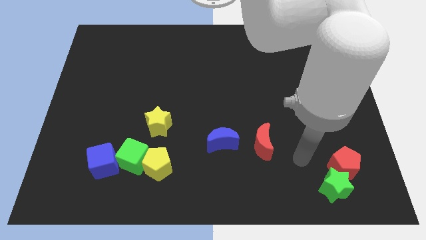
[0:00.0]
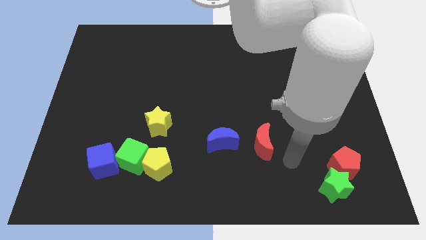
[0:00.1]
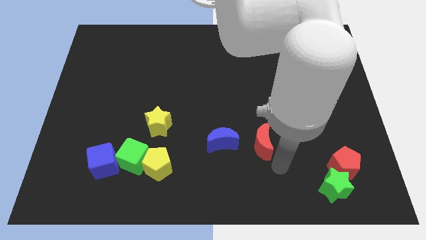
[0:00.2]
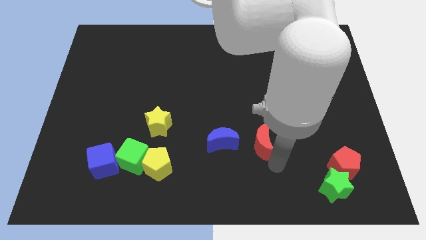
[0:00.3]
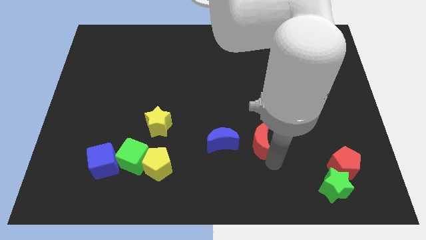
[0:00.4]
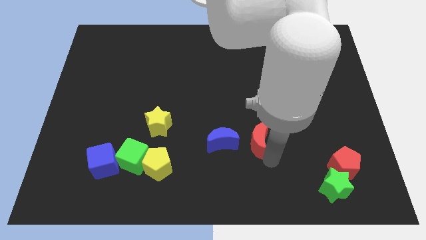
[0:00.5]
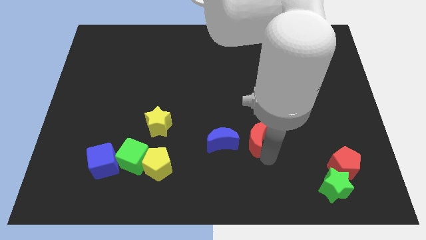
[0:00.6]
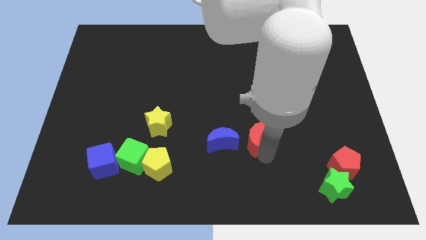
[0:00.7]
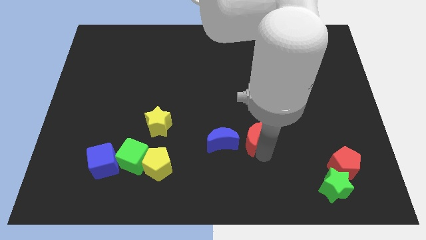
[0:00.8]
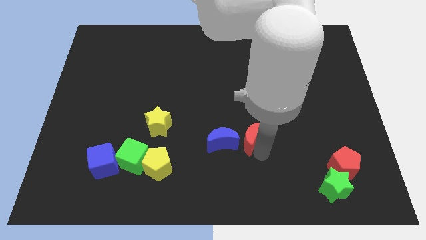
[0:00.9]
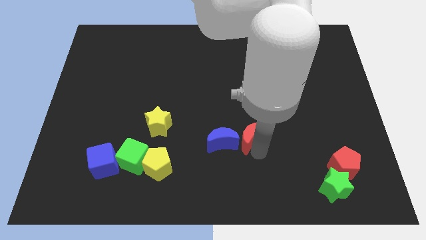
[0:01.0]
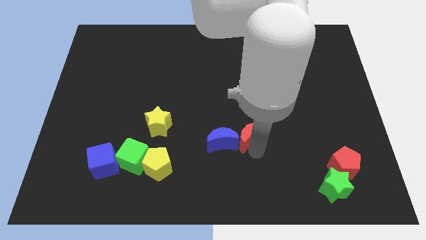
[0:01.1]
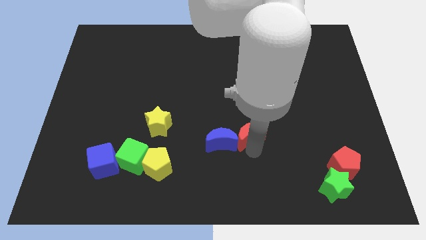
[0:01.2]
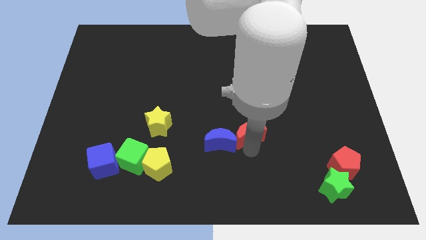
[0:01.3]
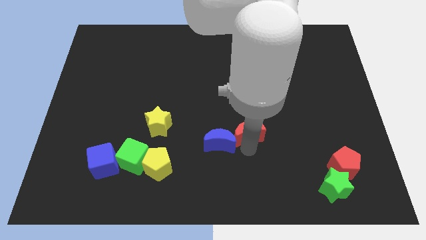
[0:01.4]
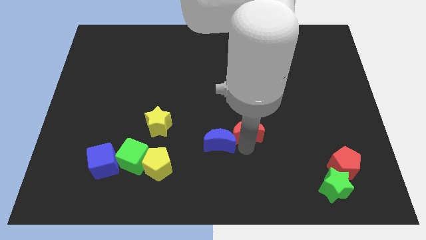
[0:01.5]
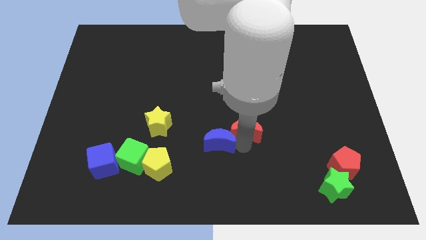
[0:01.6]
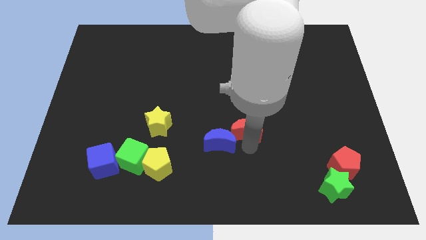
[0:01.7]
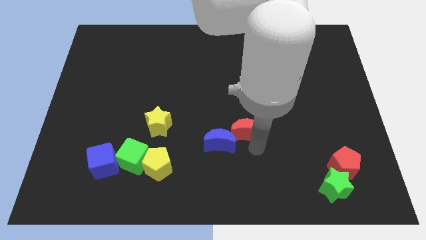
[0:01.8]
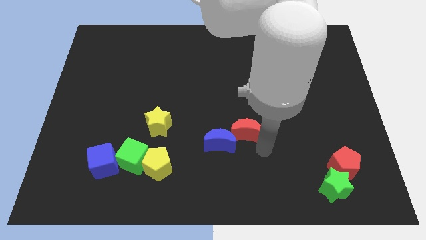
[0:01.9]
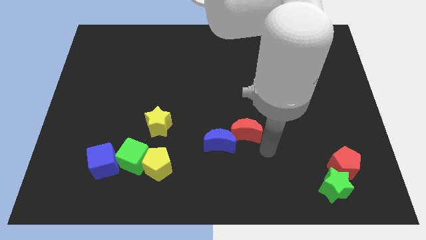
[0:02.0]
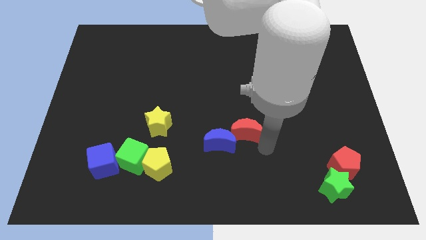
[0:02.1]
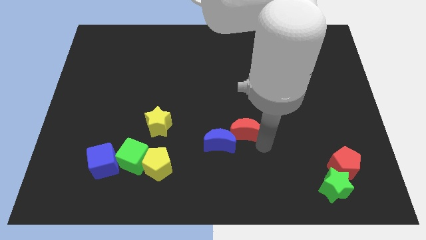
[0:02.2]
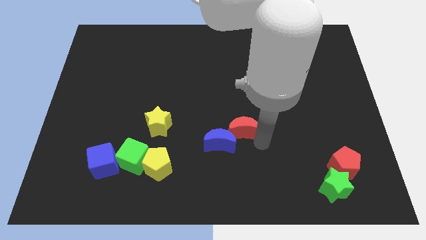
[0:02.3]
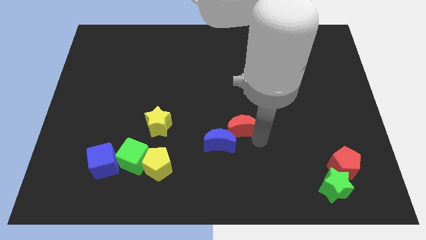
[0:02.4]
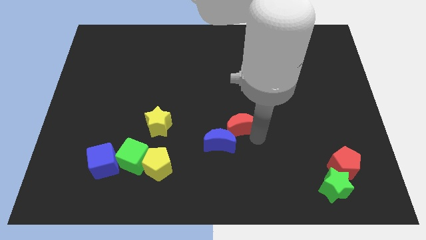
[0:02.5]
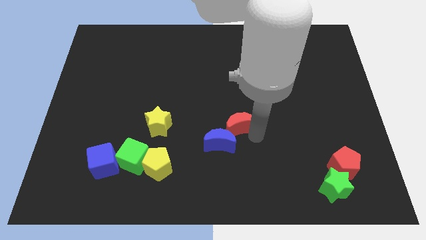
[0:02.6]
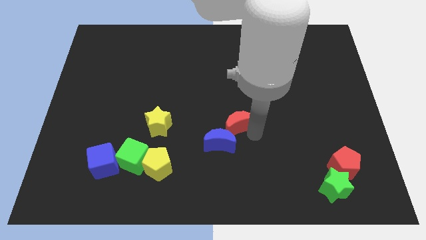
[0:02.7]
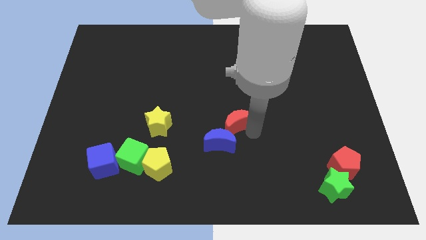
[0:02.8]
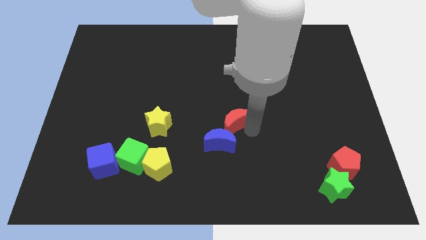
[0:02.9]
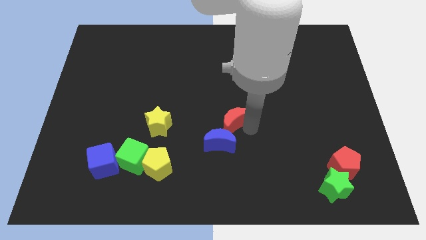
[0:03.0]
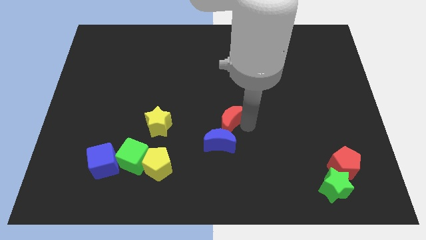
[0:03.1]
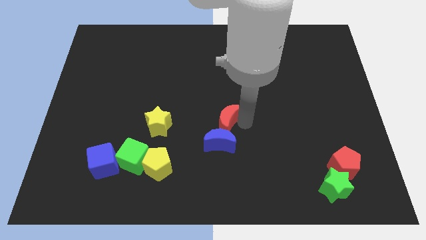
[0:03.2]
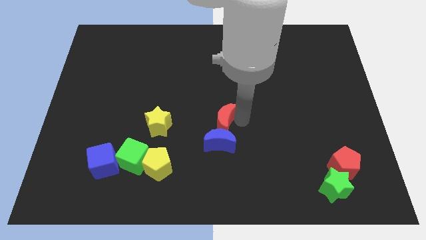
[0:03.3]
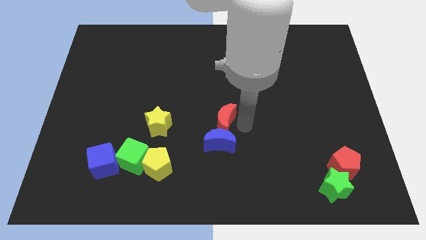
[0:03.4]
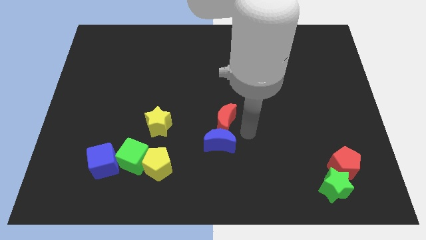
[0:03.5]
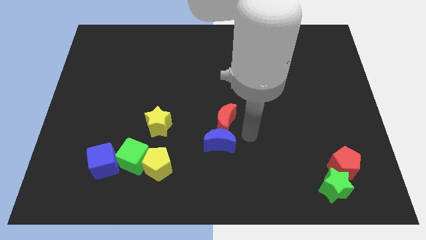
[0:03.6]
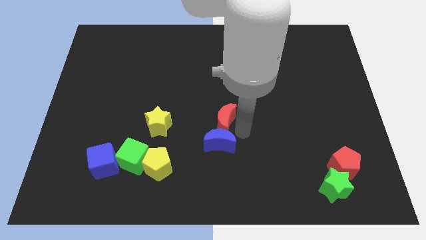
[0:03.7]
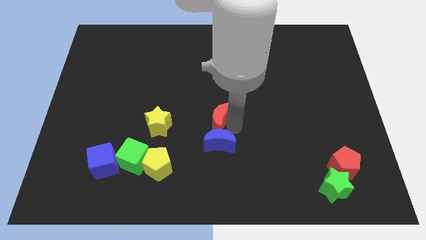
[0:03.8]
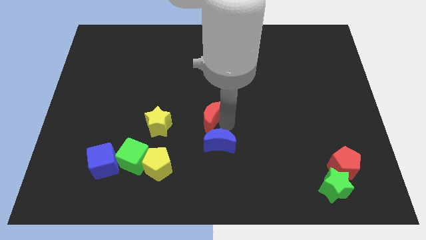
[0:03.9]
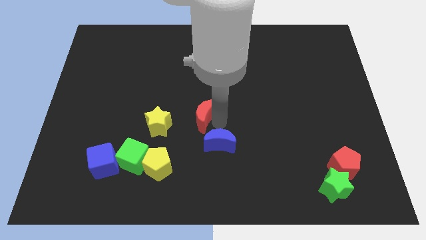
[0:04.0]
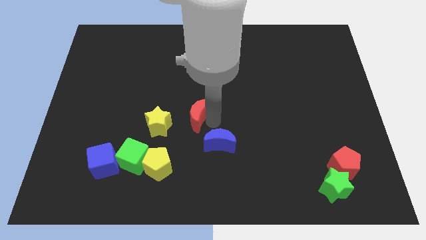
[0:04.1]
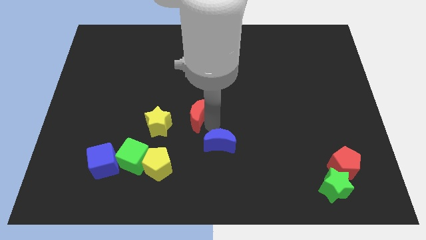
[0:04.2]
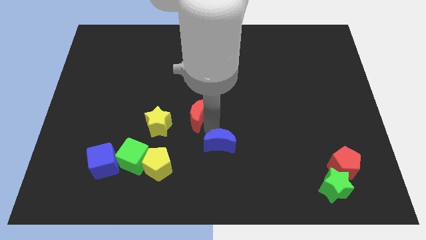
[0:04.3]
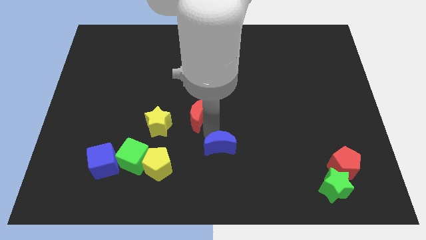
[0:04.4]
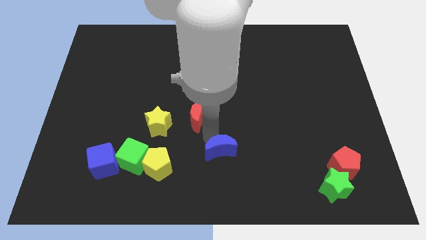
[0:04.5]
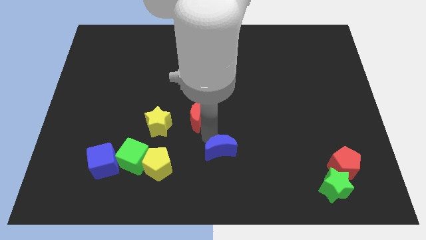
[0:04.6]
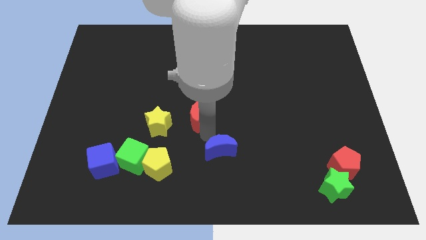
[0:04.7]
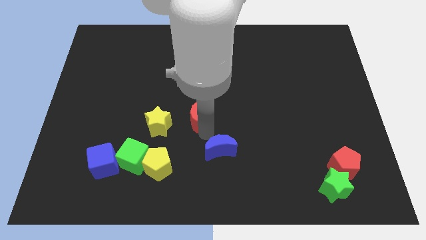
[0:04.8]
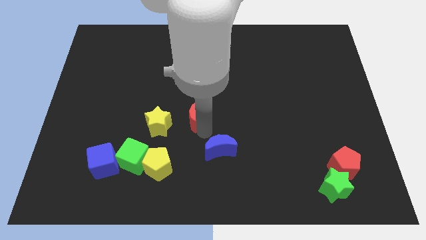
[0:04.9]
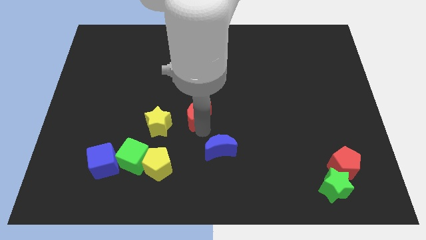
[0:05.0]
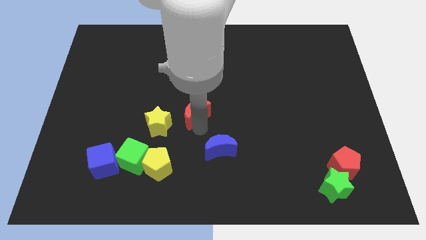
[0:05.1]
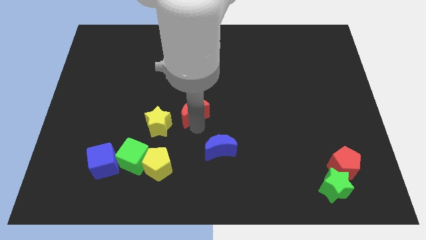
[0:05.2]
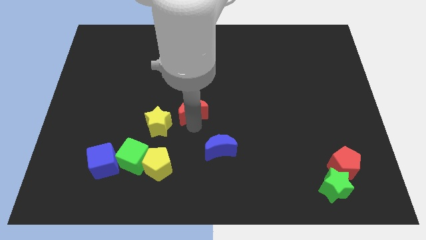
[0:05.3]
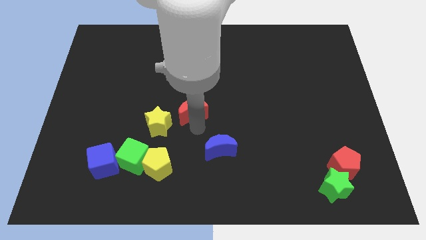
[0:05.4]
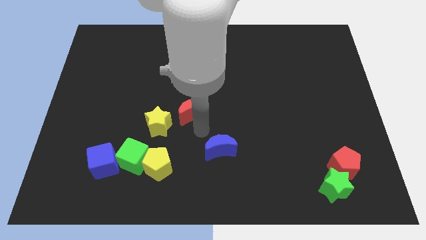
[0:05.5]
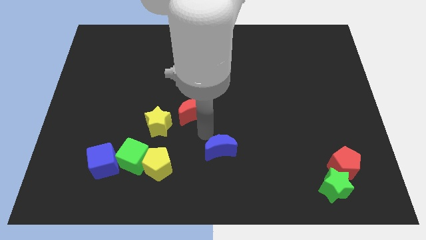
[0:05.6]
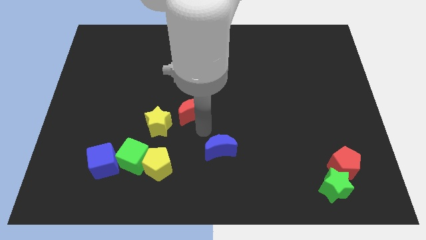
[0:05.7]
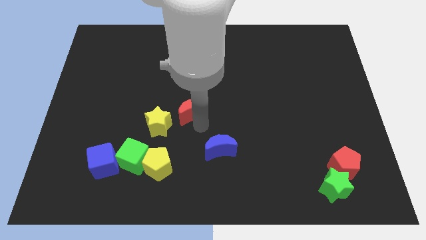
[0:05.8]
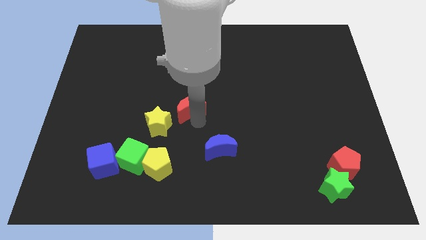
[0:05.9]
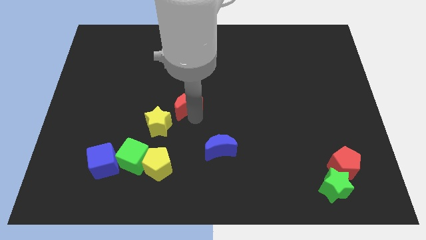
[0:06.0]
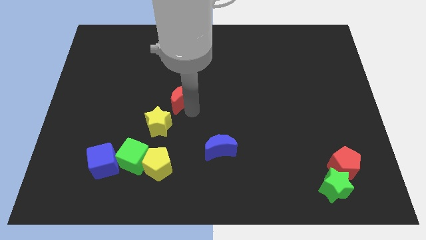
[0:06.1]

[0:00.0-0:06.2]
put the red moon above the yellow star
